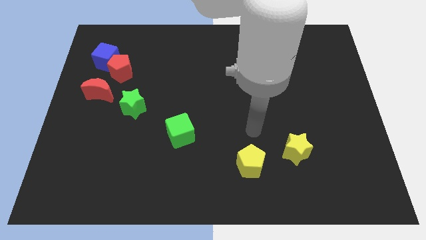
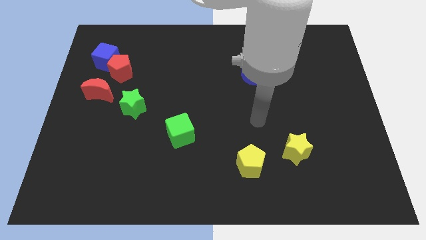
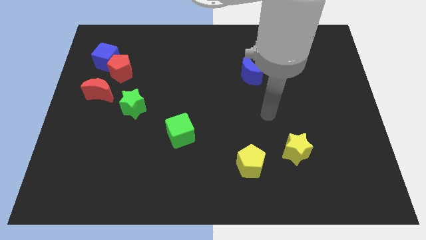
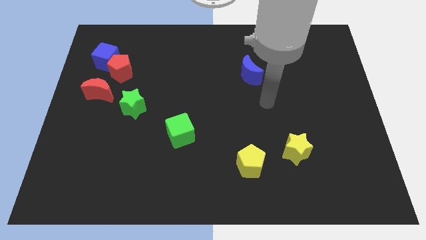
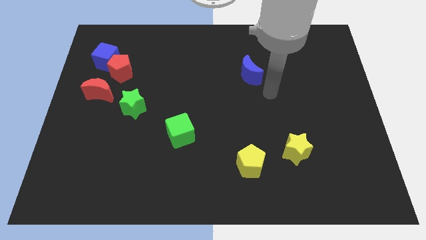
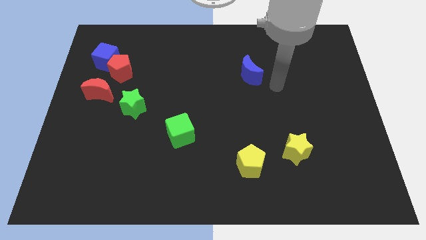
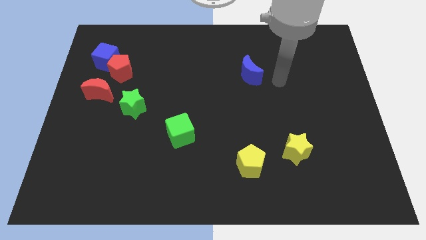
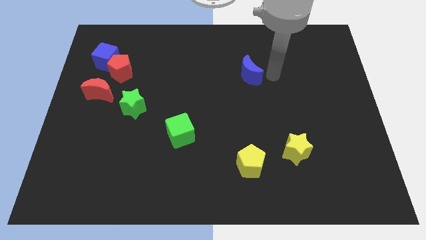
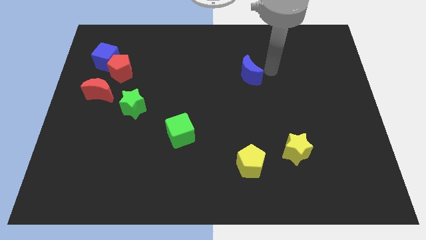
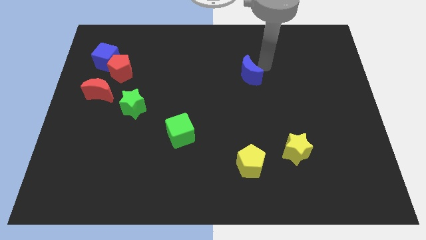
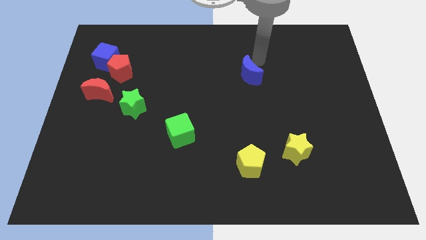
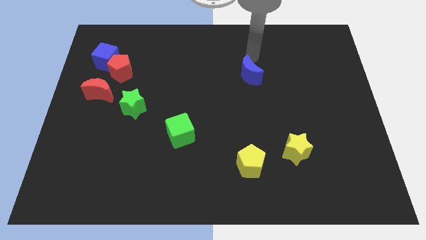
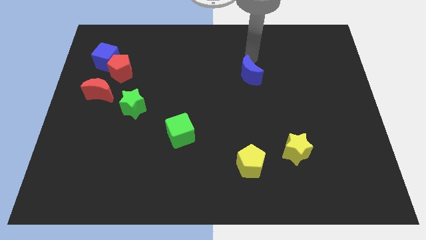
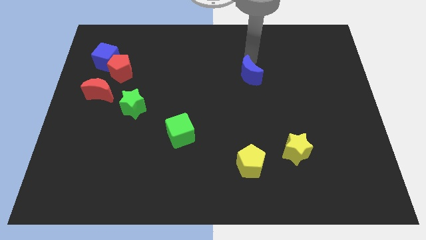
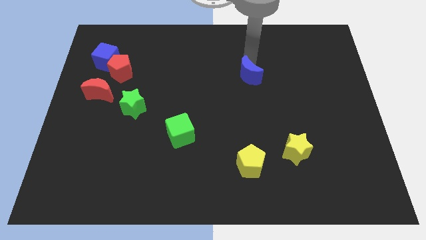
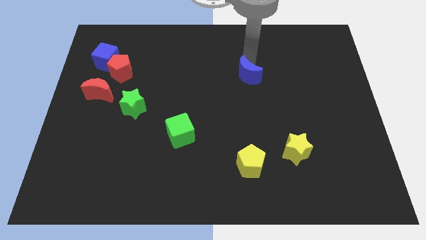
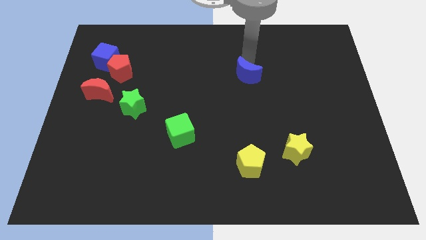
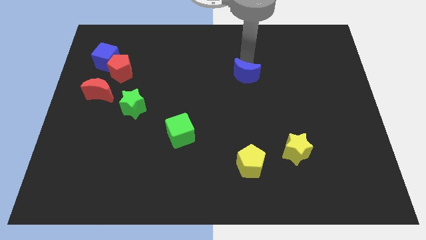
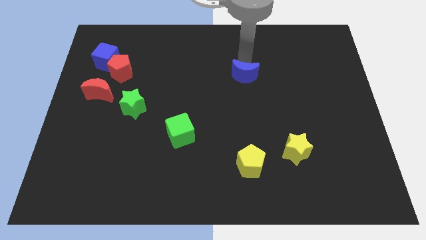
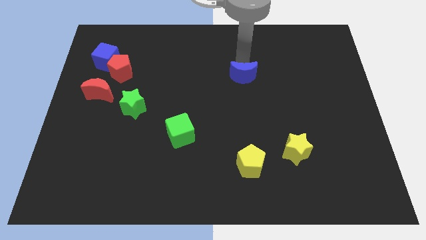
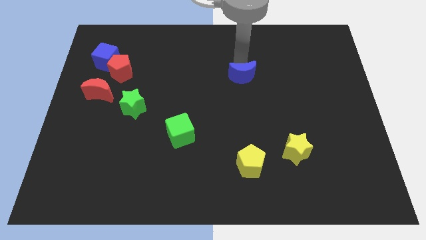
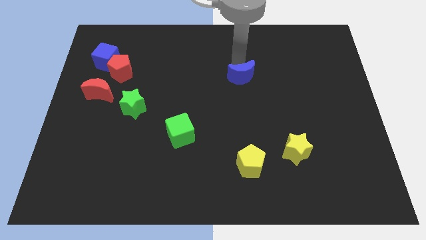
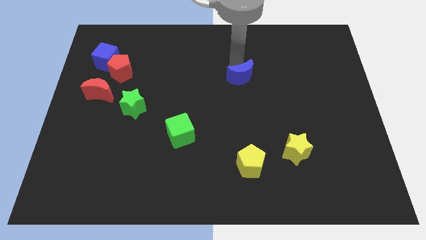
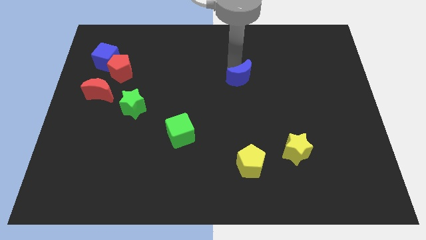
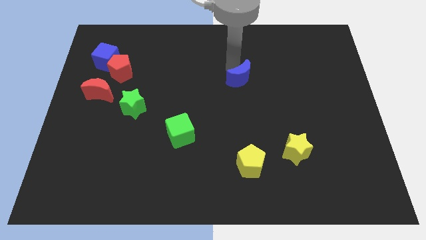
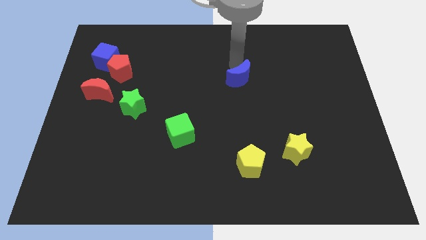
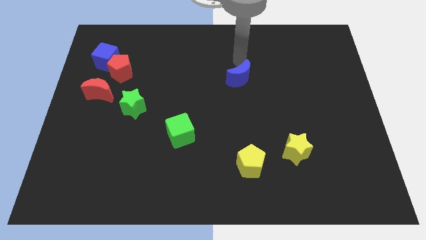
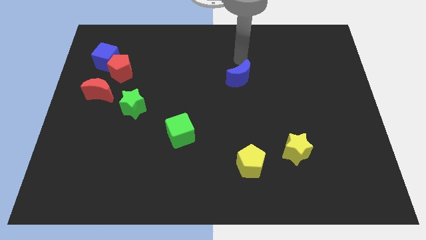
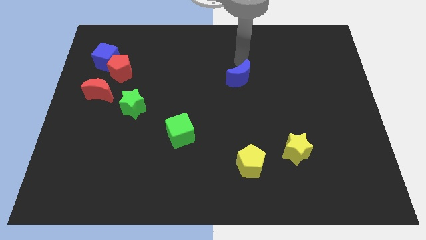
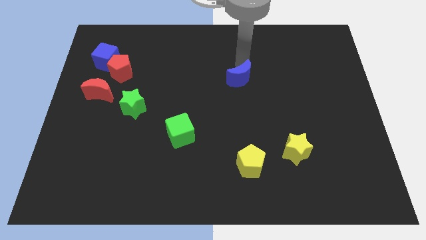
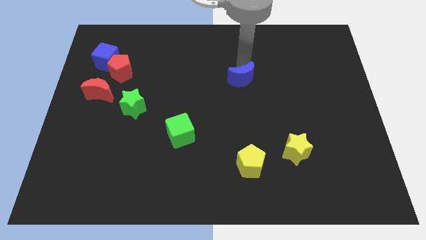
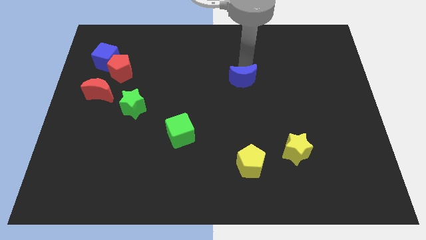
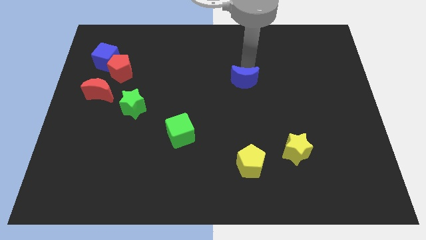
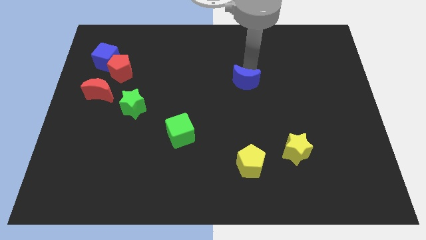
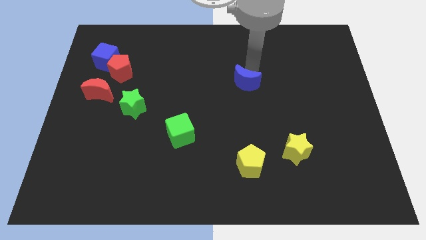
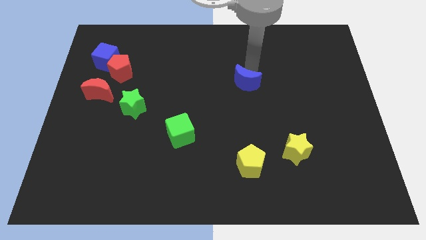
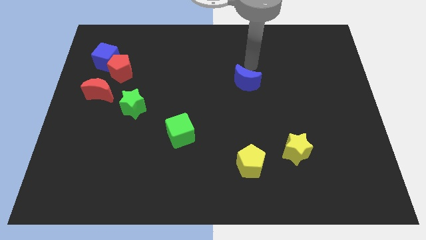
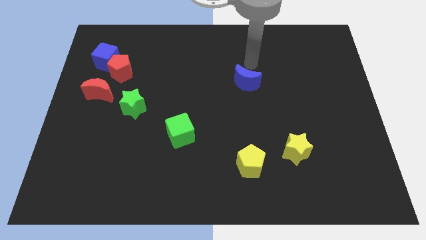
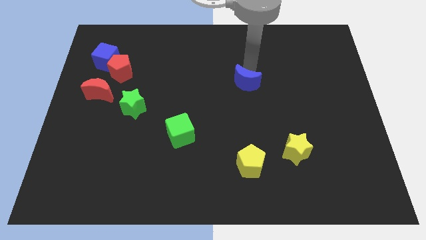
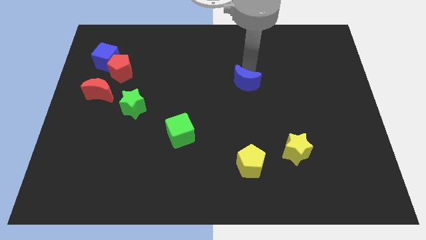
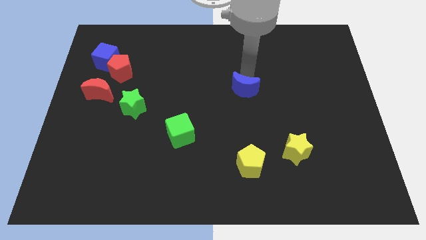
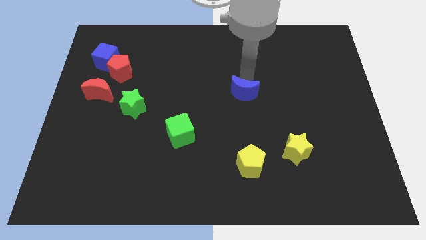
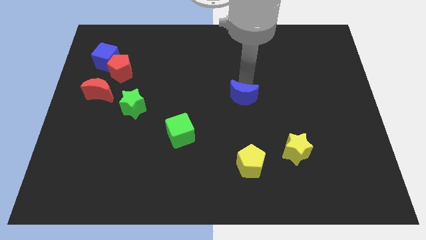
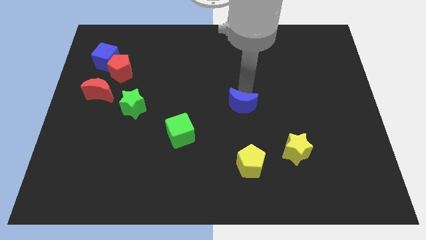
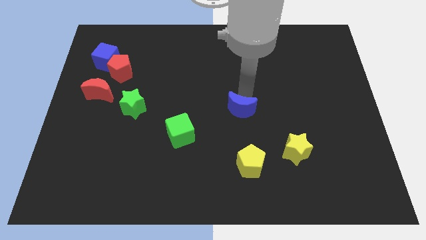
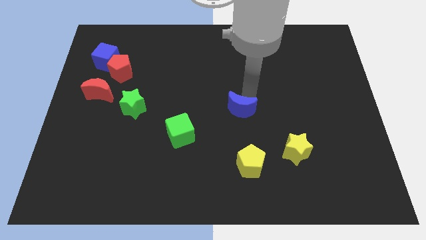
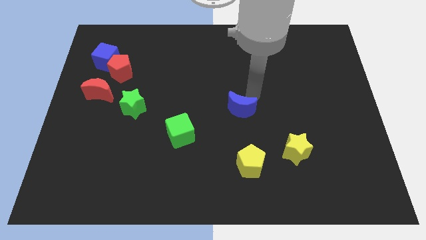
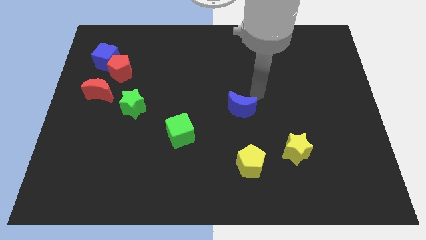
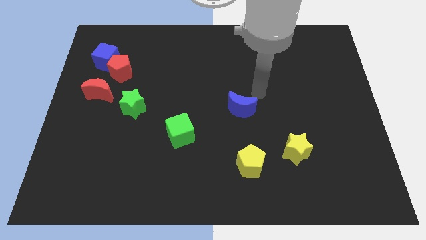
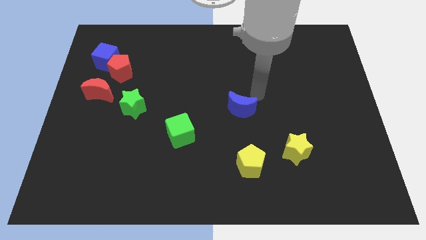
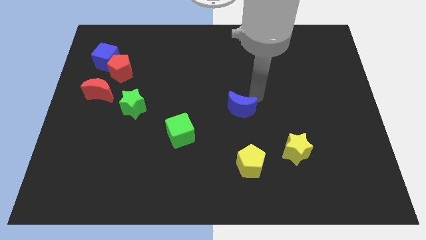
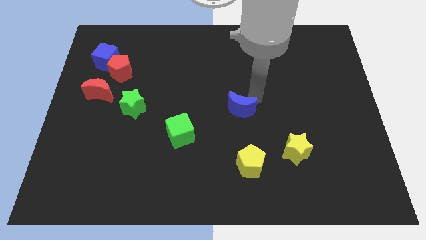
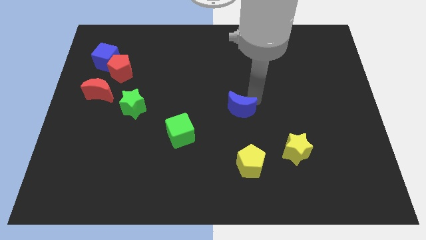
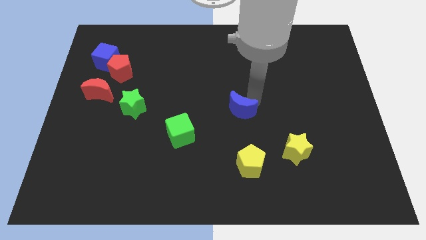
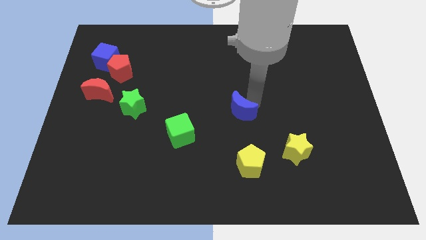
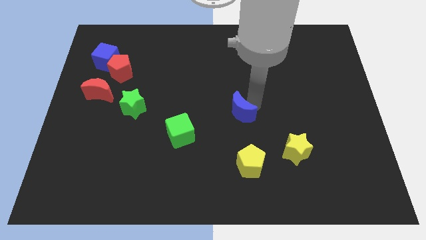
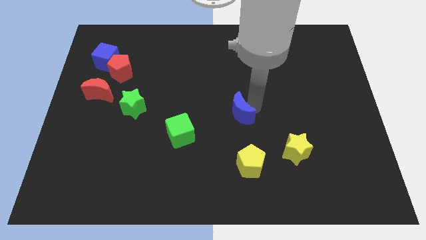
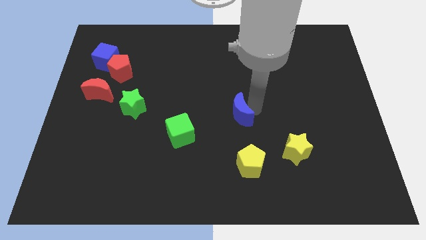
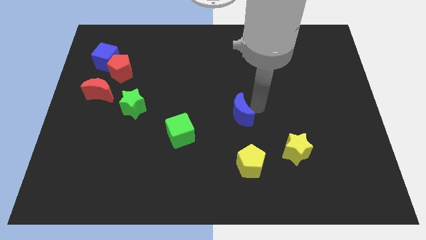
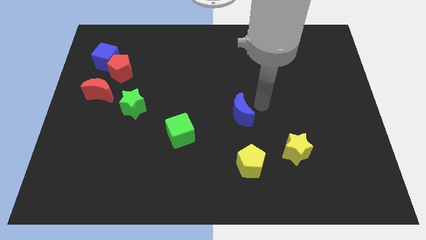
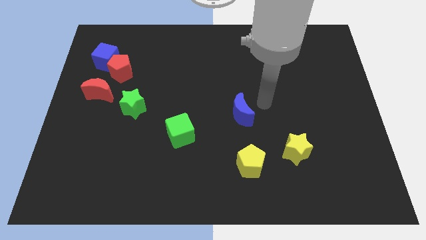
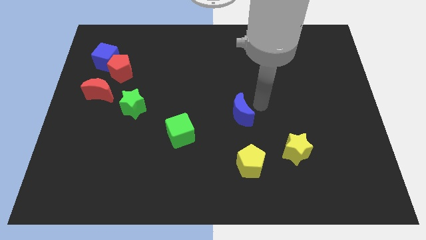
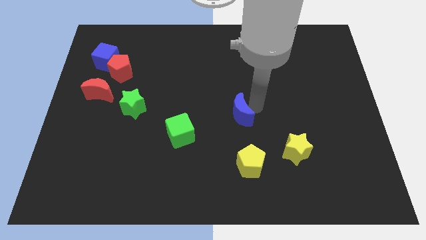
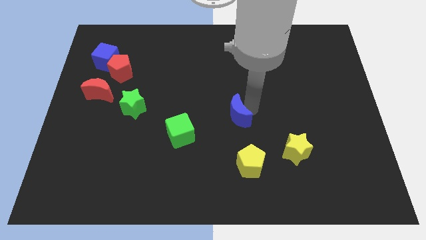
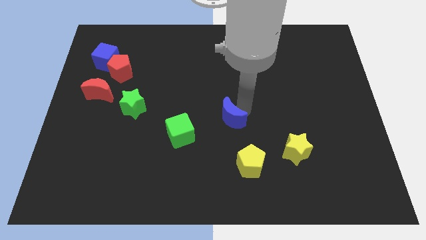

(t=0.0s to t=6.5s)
push the blue moon just right of the green cube

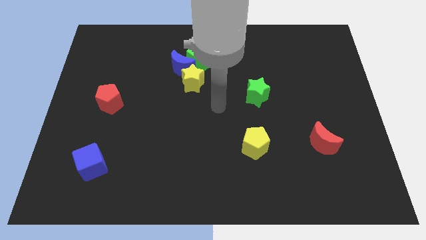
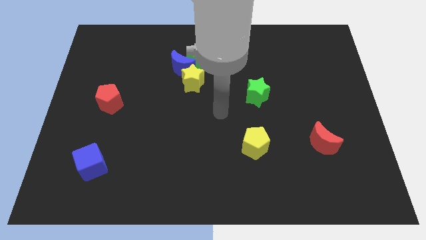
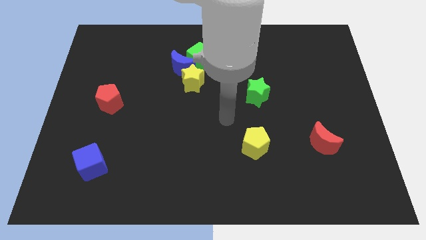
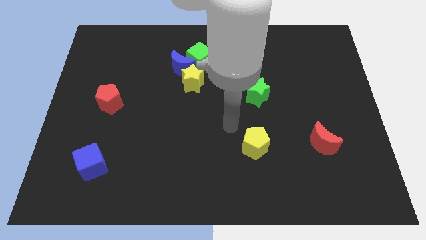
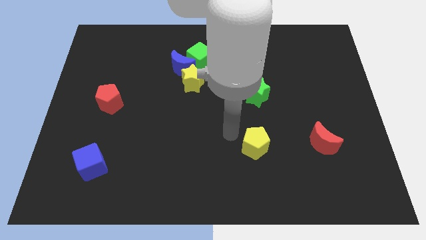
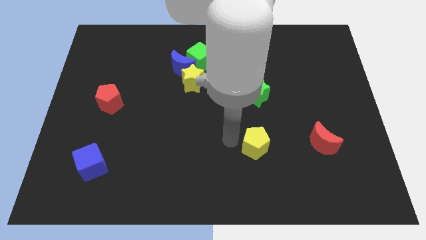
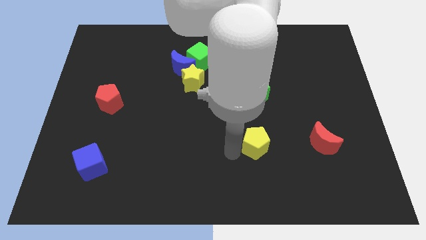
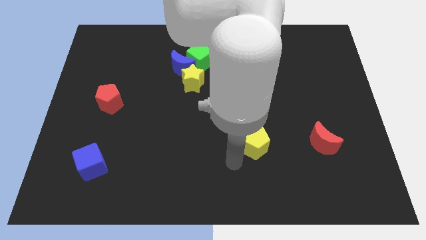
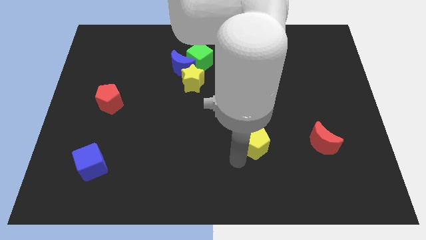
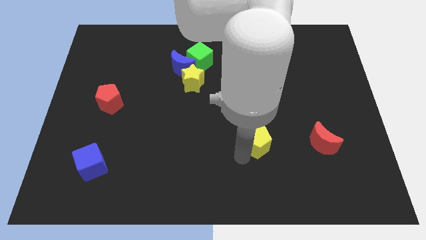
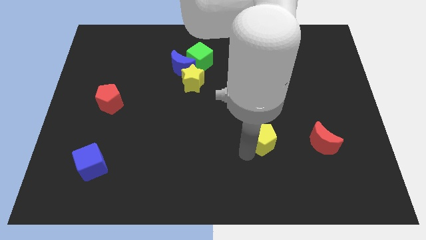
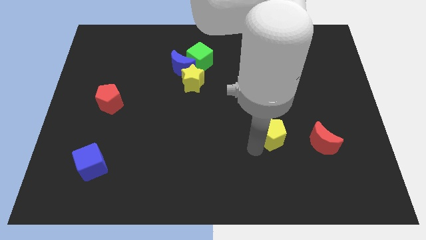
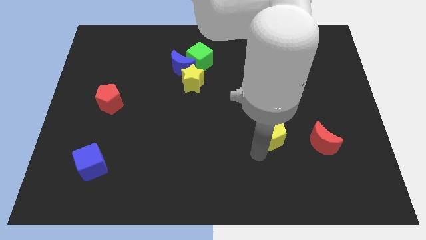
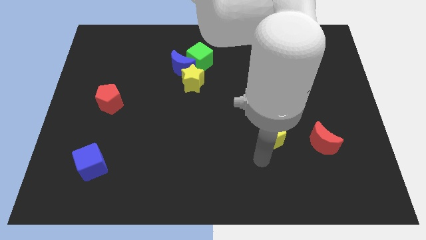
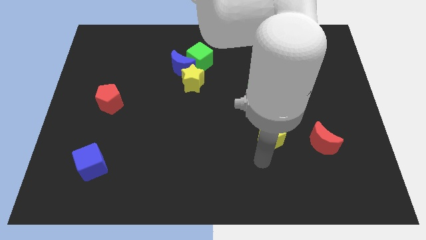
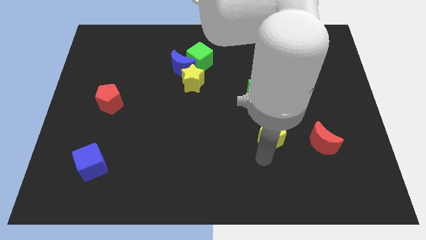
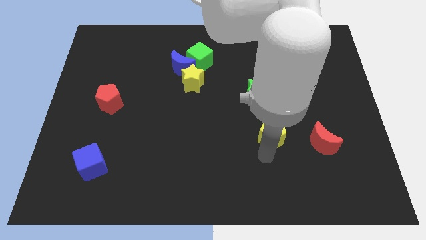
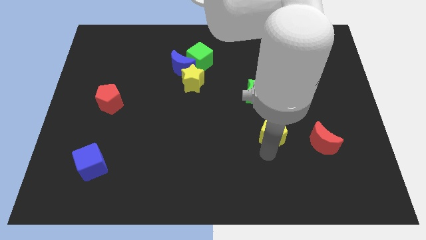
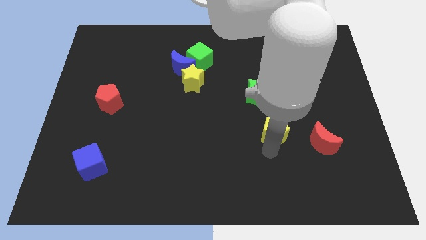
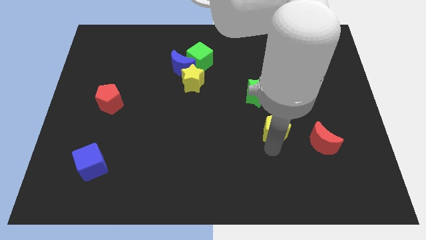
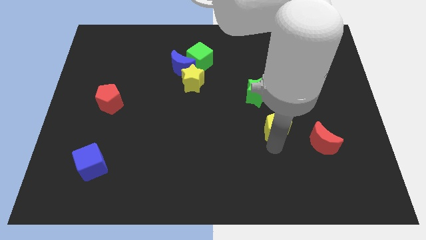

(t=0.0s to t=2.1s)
push the yellow pentagon to the bottom right side of the green star
